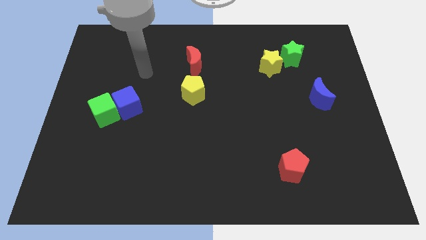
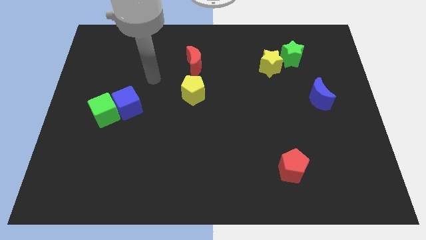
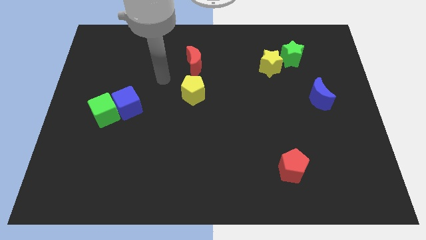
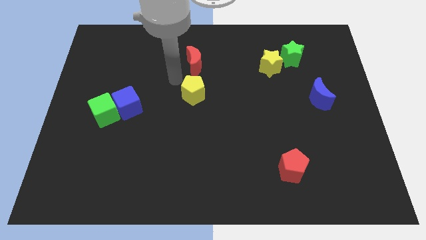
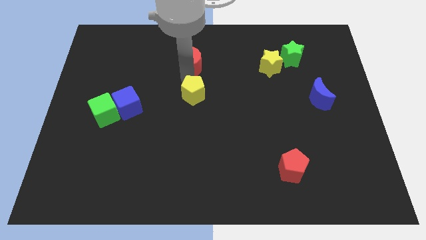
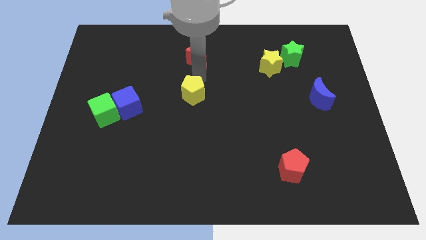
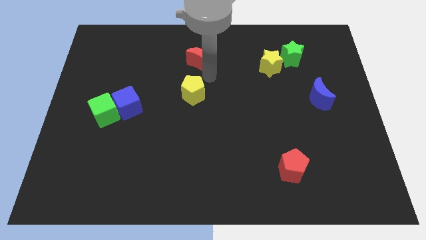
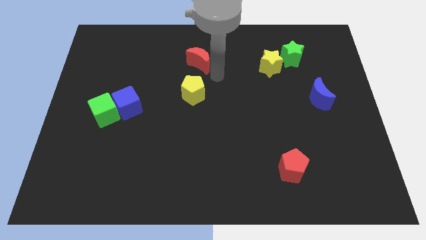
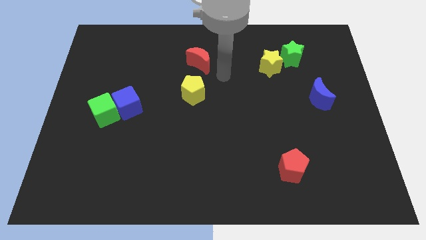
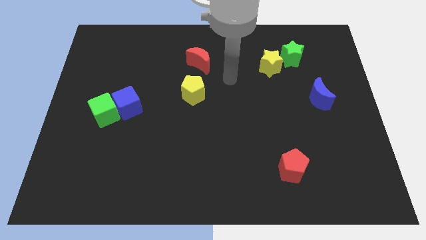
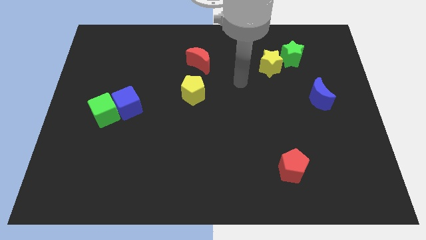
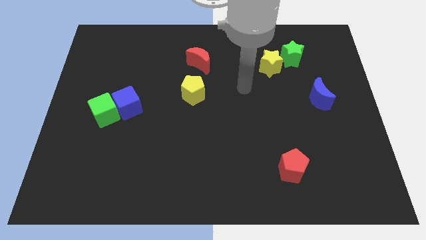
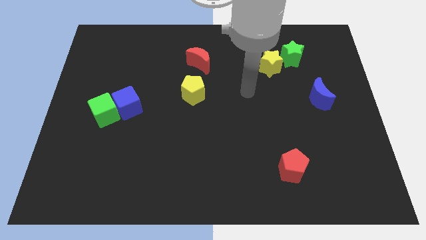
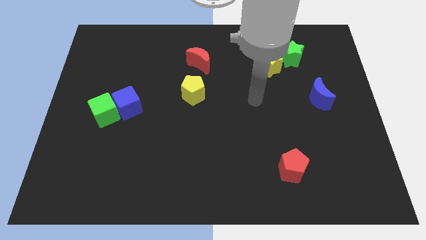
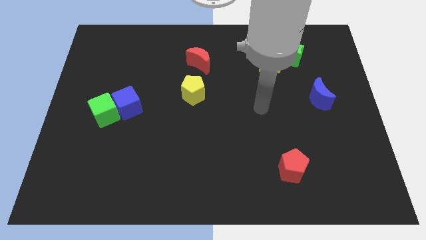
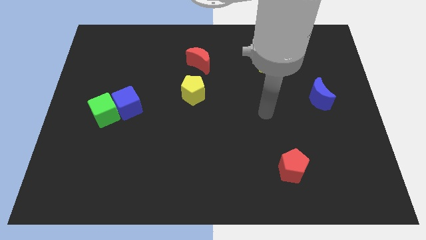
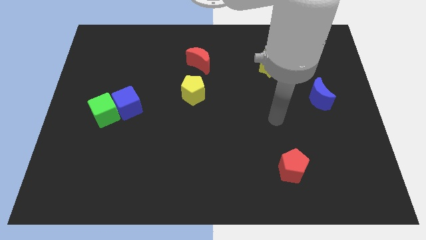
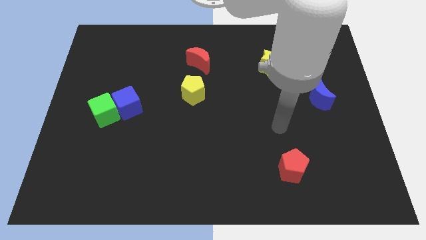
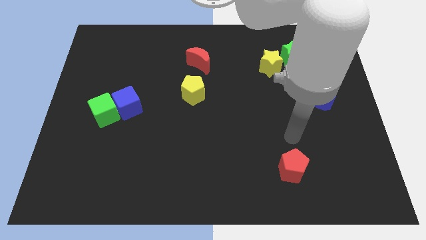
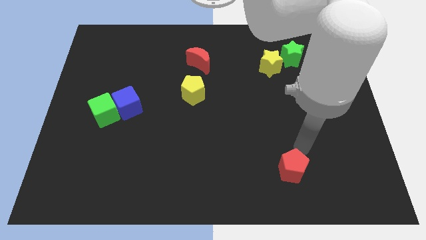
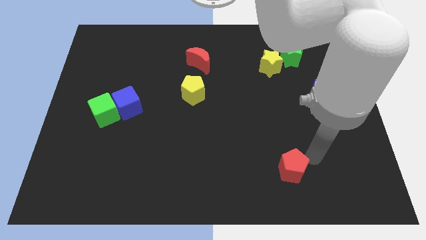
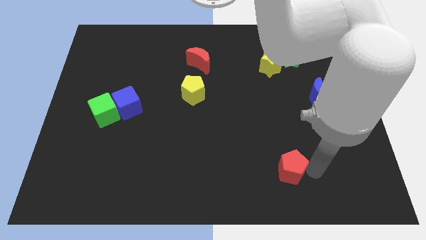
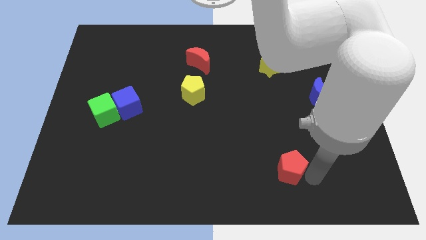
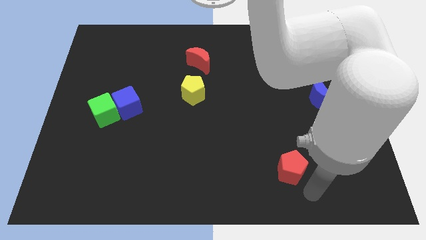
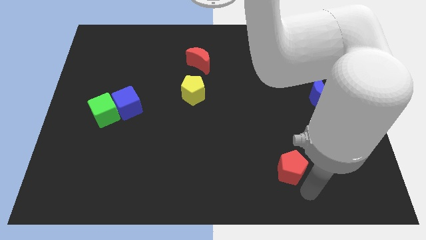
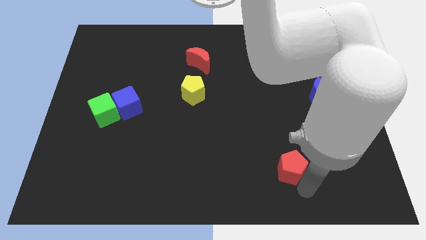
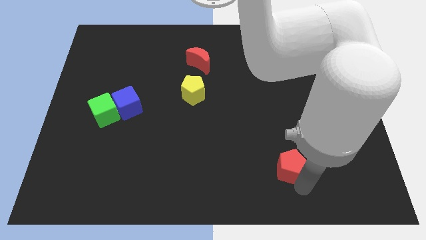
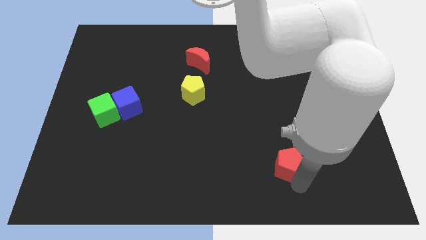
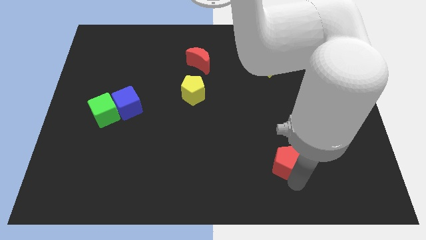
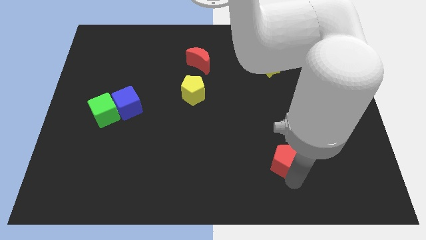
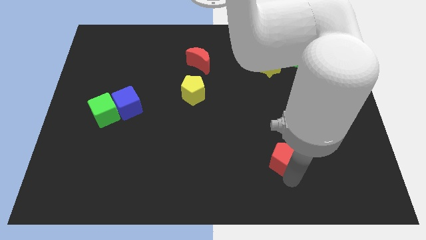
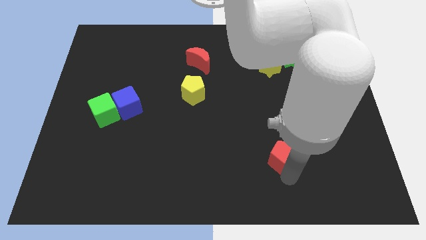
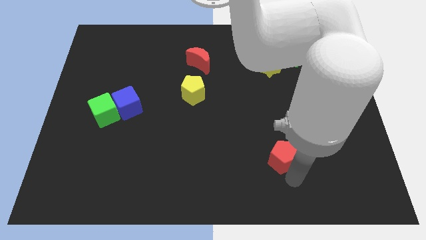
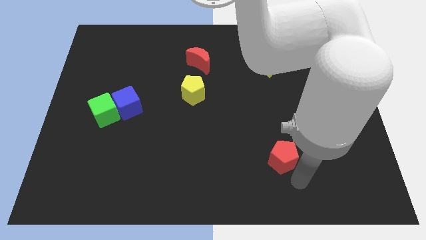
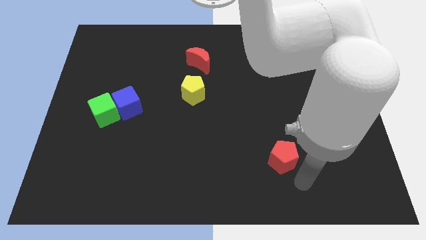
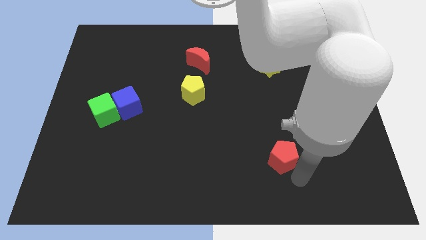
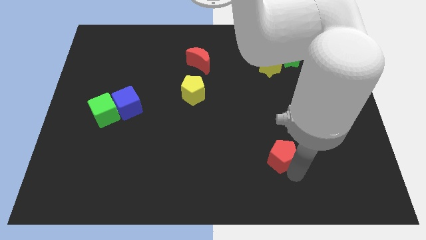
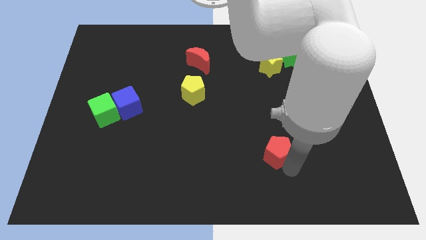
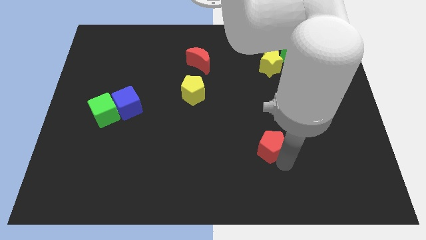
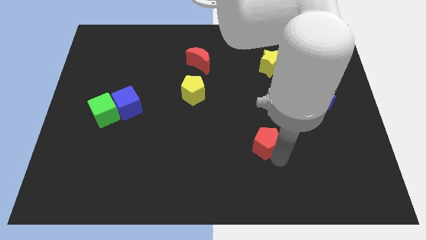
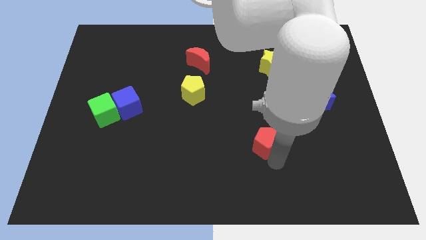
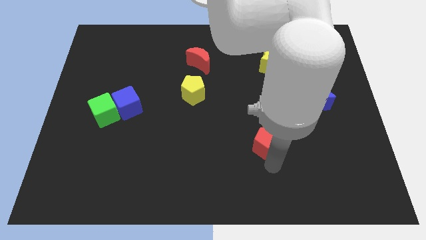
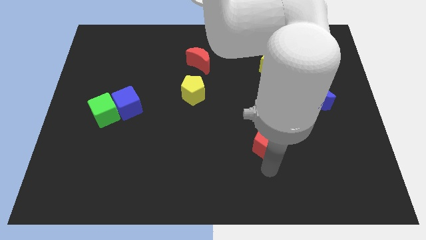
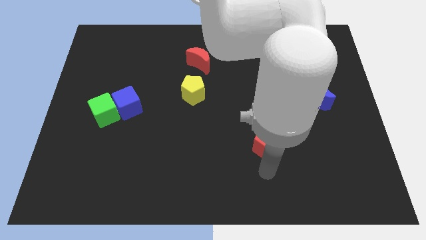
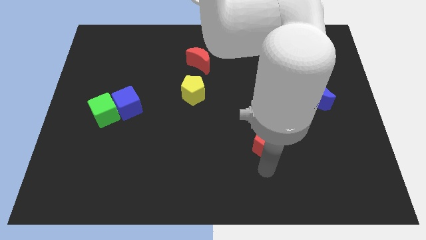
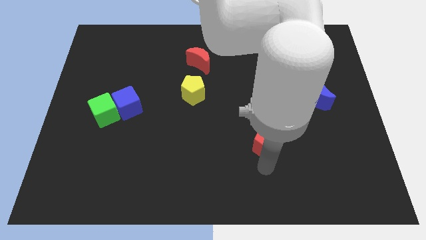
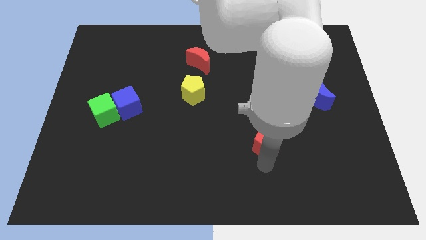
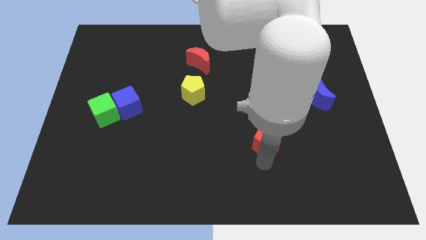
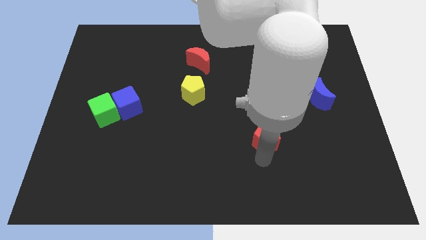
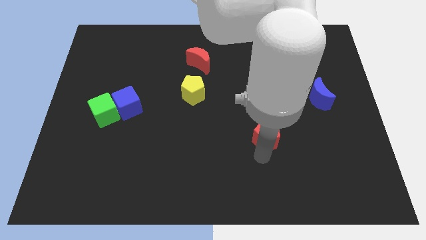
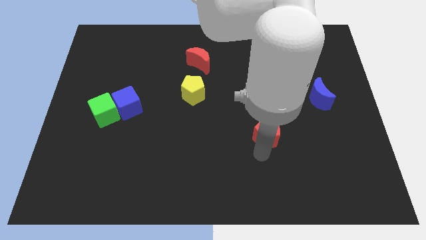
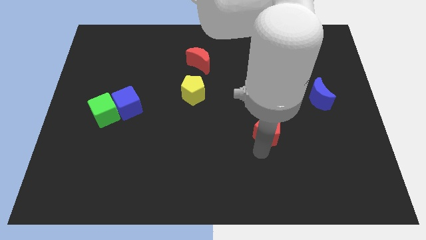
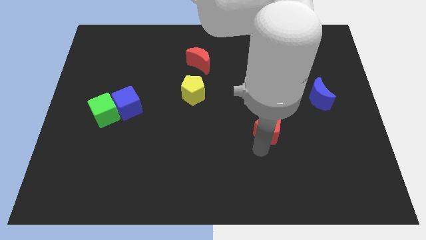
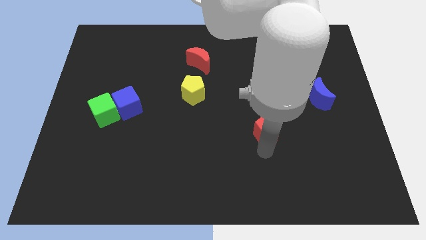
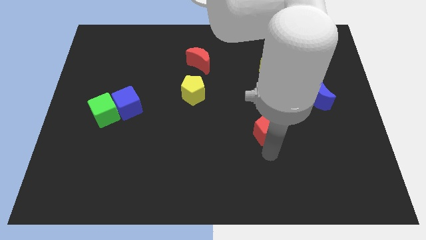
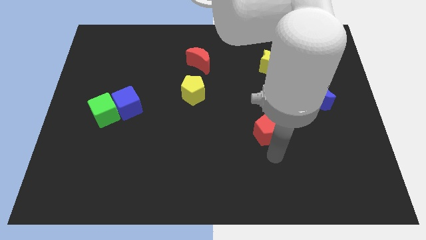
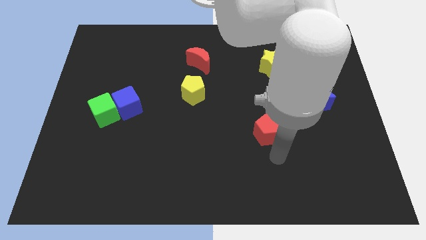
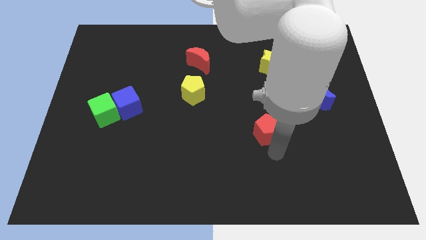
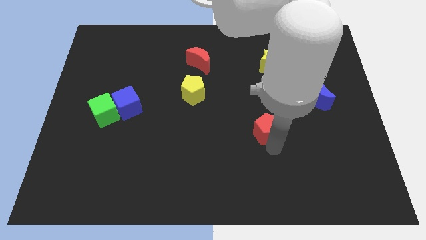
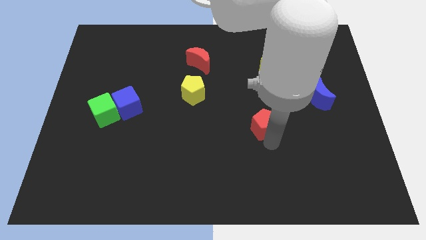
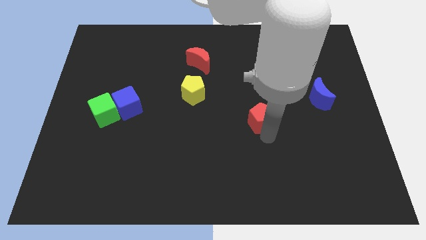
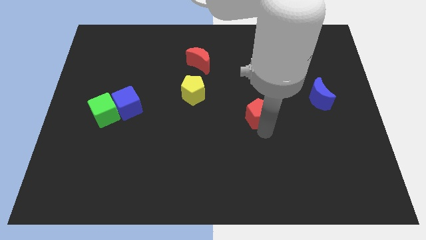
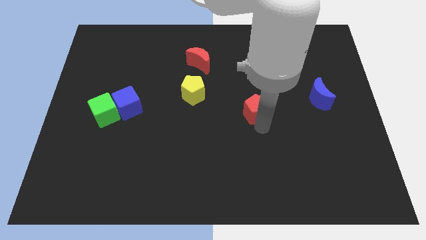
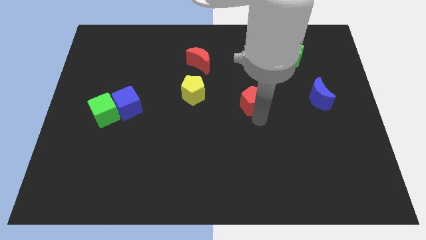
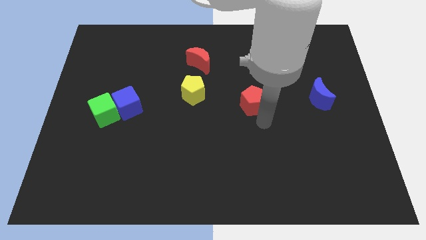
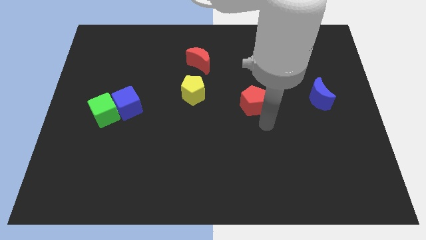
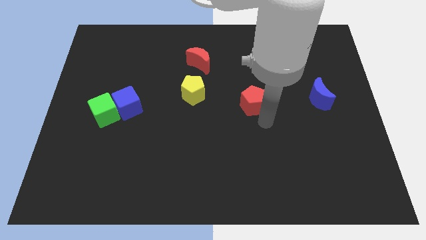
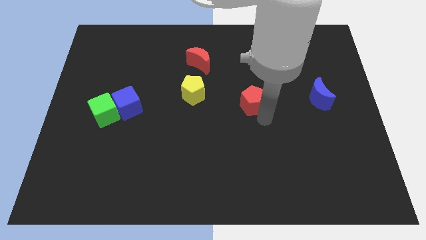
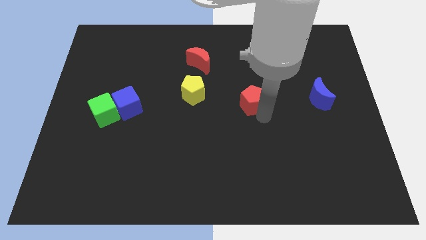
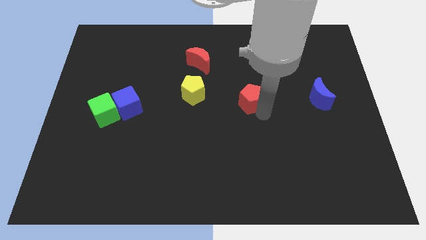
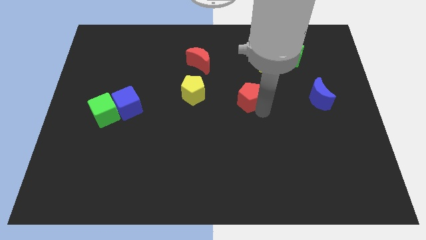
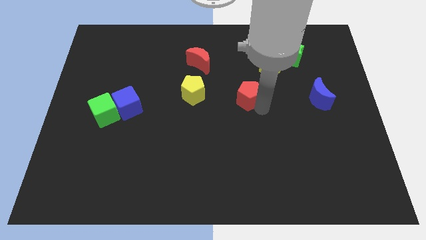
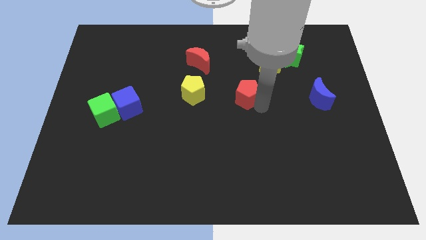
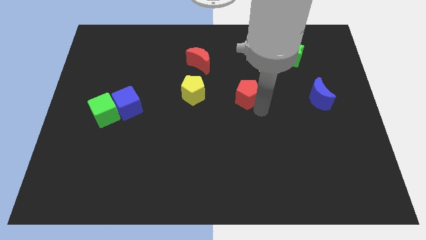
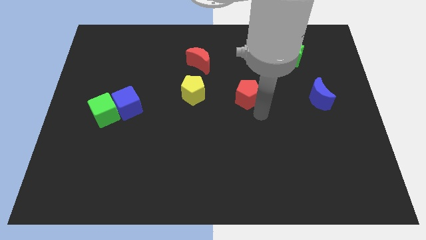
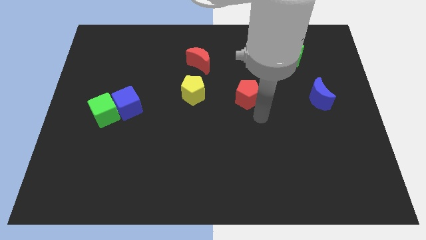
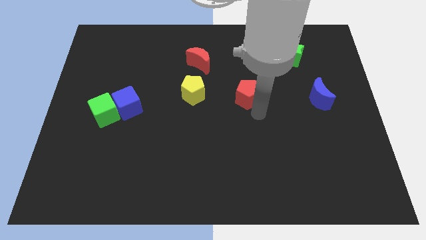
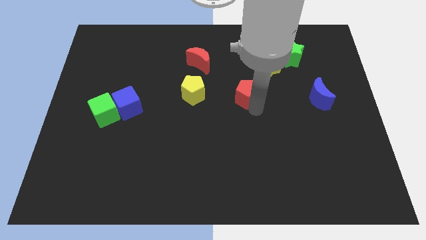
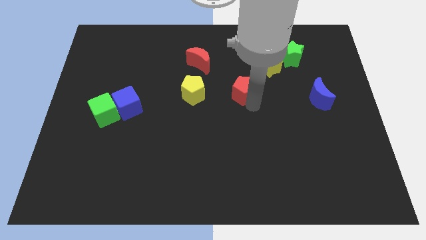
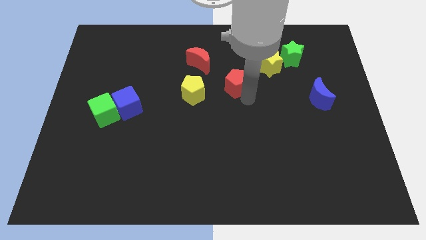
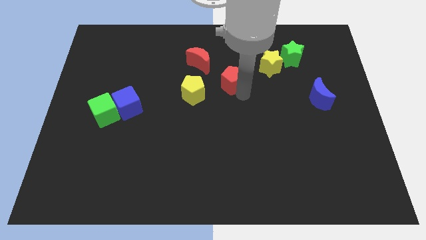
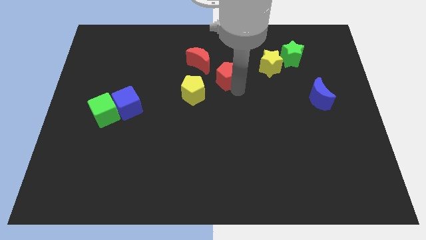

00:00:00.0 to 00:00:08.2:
slide the red pentagon just left of the yellow star
